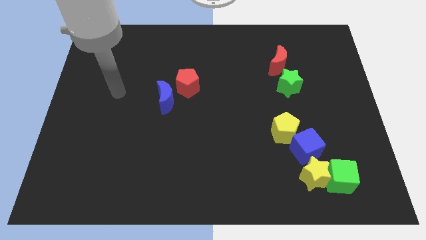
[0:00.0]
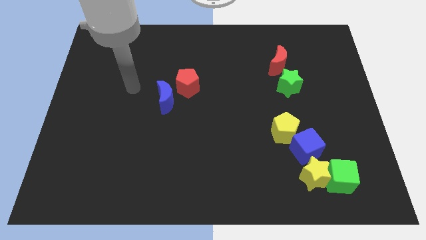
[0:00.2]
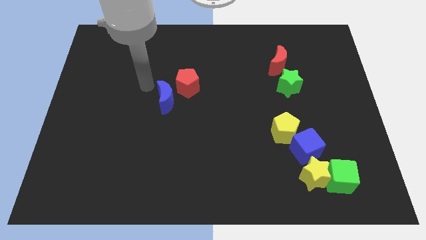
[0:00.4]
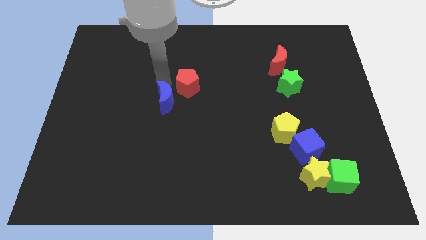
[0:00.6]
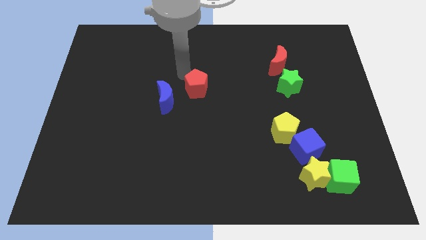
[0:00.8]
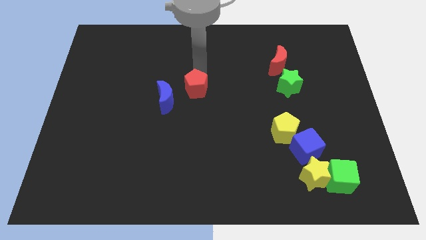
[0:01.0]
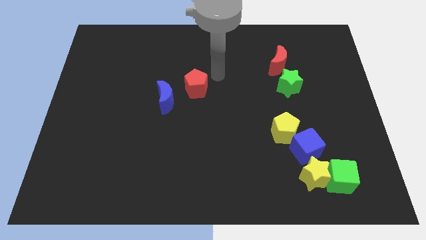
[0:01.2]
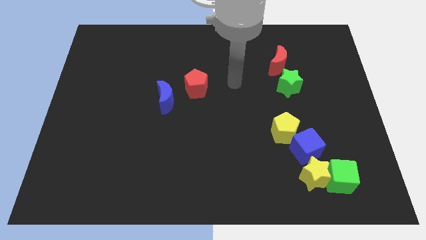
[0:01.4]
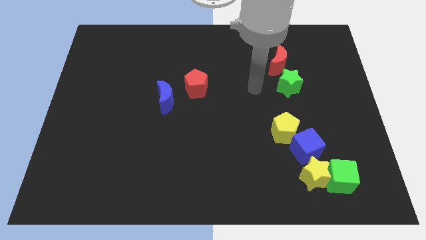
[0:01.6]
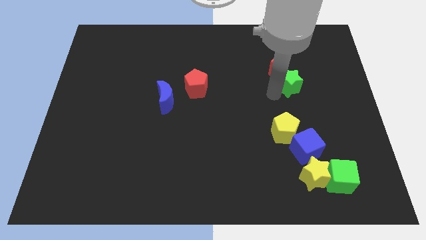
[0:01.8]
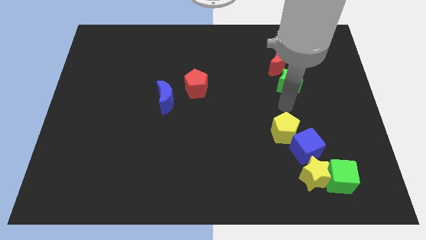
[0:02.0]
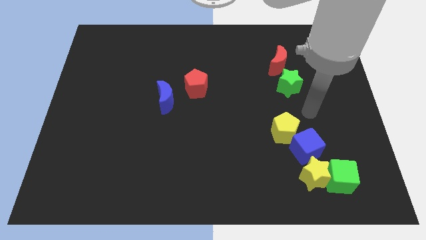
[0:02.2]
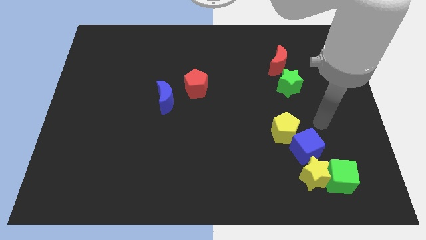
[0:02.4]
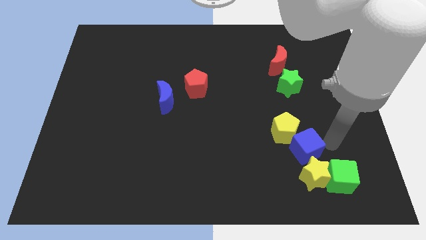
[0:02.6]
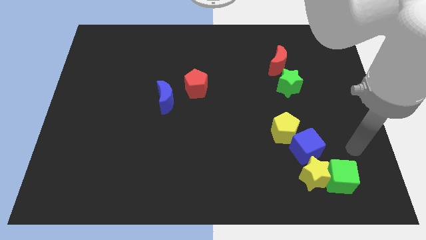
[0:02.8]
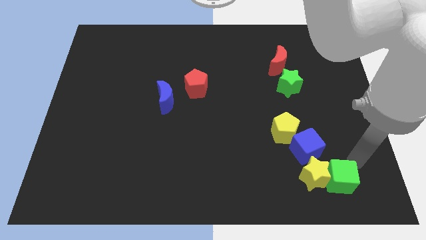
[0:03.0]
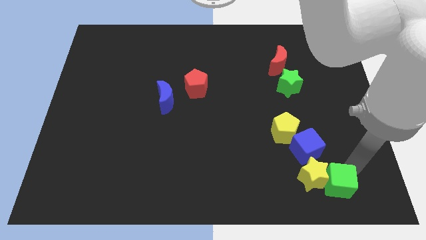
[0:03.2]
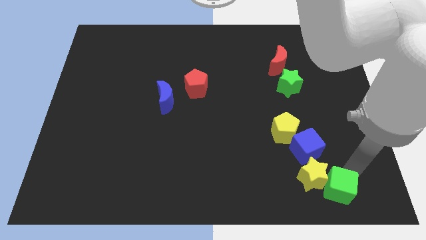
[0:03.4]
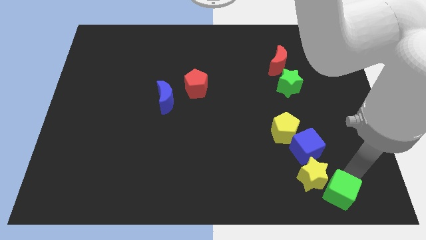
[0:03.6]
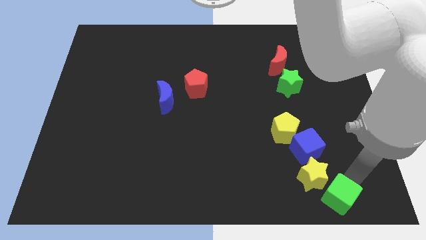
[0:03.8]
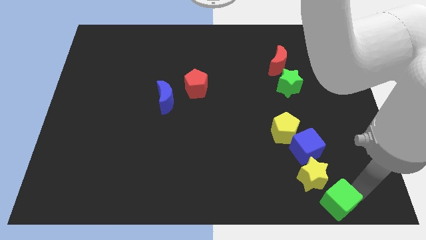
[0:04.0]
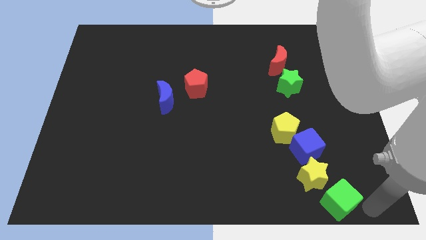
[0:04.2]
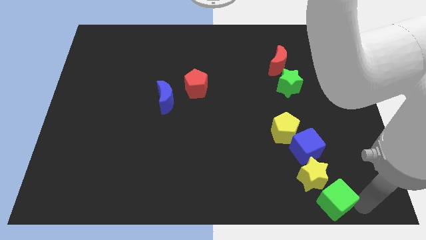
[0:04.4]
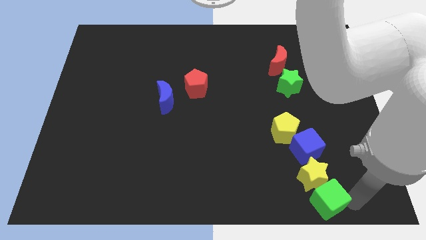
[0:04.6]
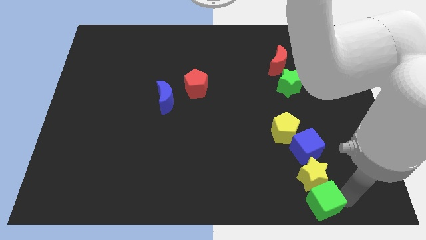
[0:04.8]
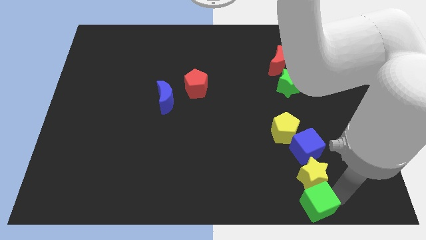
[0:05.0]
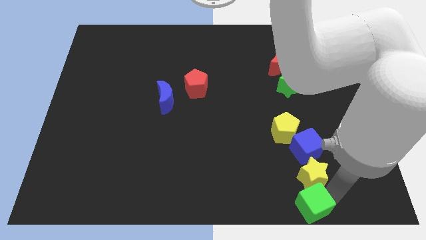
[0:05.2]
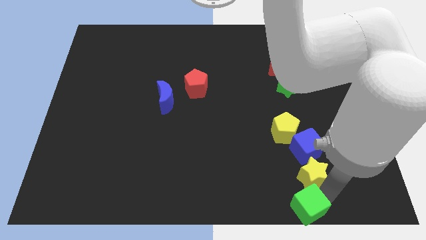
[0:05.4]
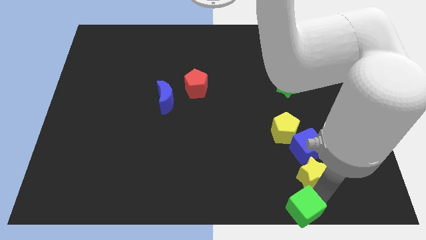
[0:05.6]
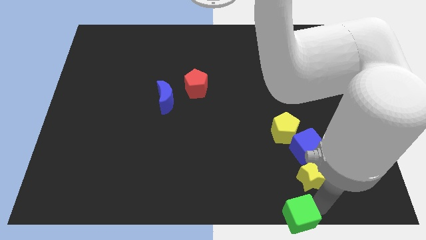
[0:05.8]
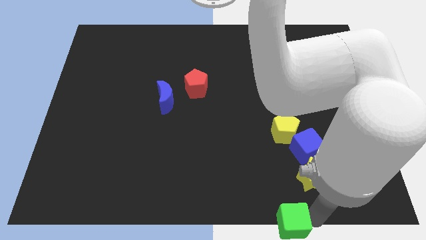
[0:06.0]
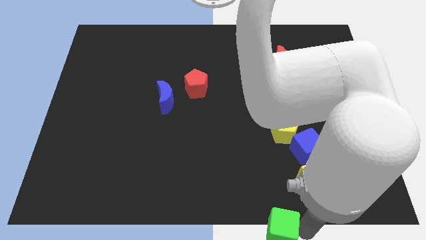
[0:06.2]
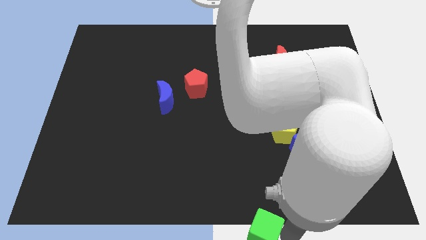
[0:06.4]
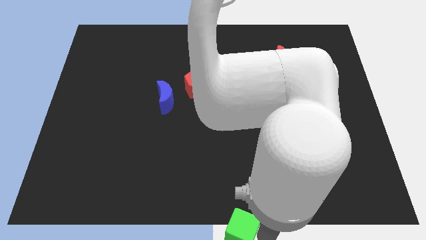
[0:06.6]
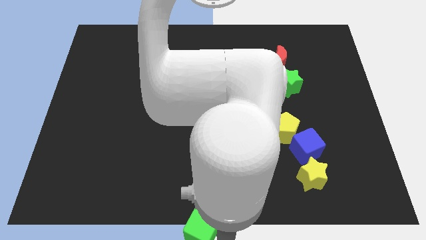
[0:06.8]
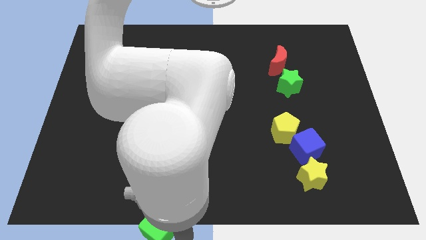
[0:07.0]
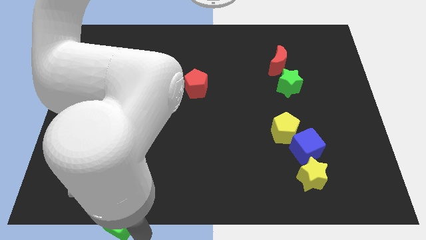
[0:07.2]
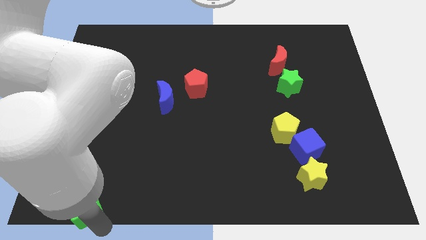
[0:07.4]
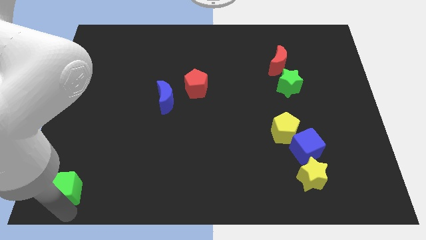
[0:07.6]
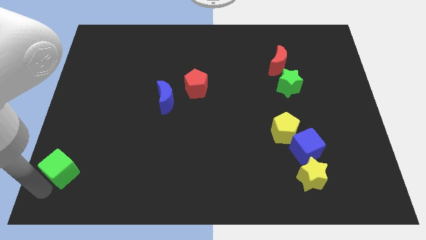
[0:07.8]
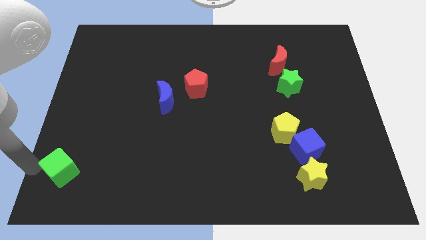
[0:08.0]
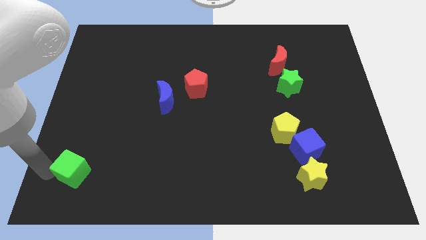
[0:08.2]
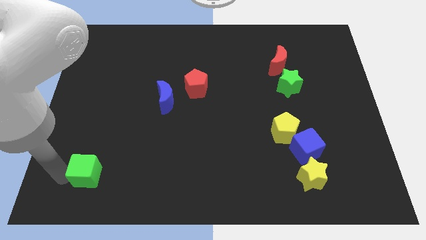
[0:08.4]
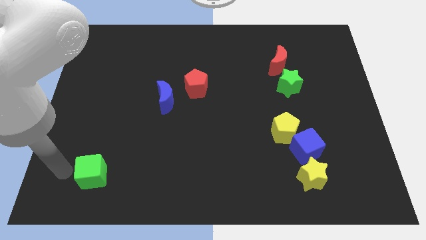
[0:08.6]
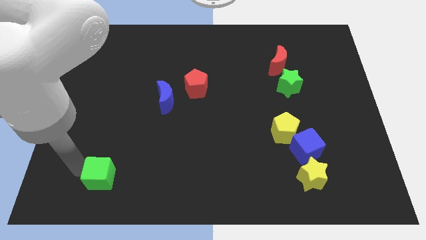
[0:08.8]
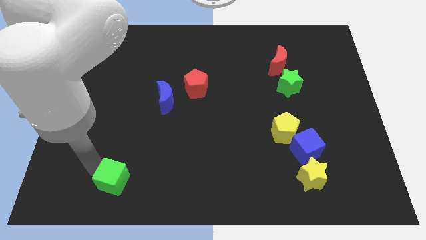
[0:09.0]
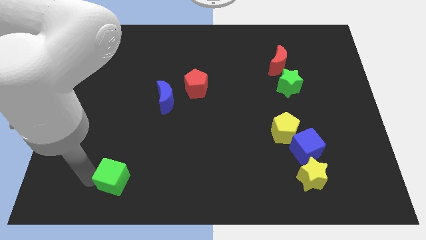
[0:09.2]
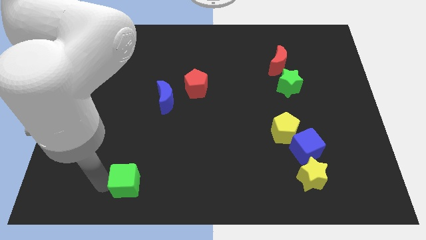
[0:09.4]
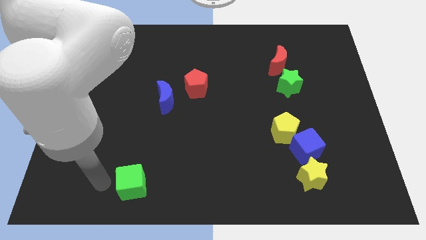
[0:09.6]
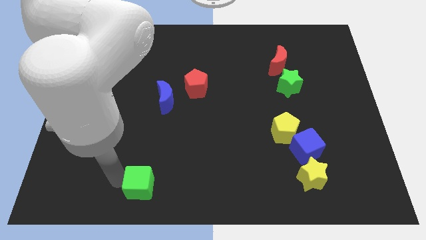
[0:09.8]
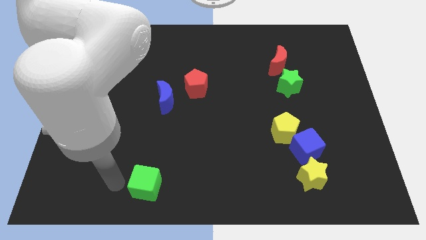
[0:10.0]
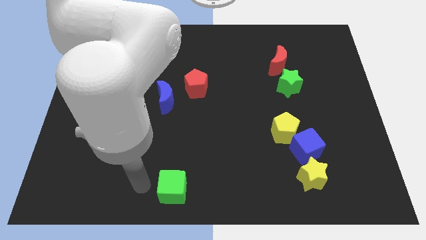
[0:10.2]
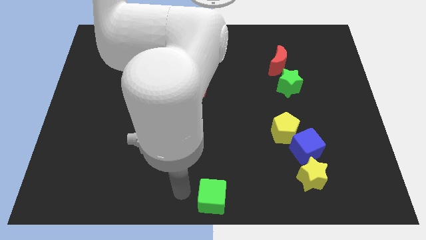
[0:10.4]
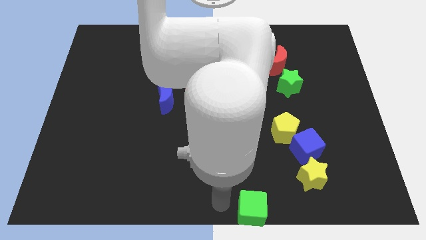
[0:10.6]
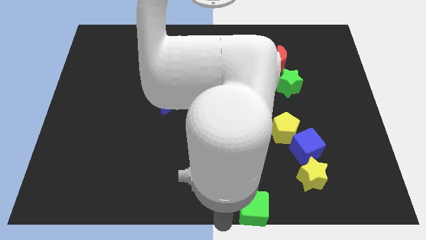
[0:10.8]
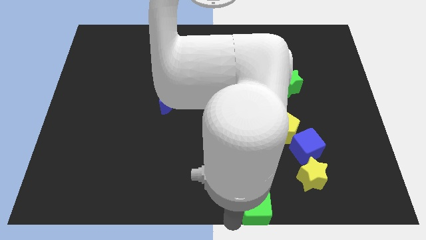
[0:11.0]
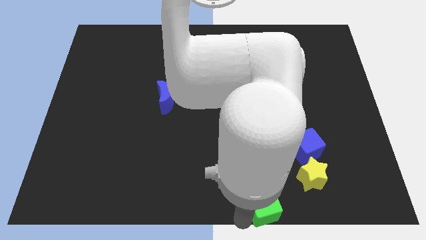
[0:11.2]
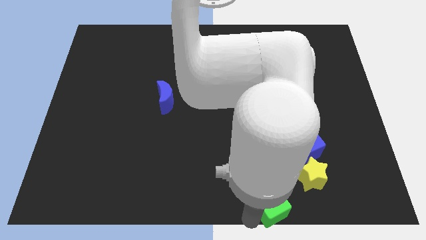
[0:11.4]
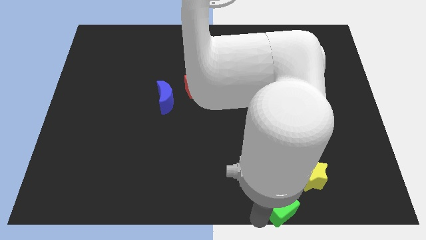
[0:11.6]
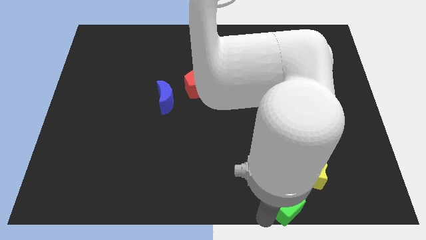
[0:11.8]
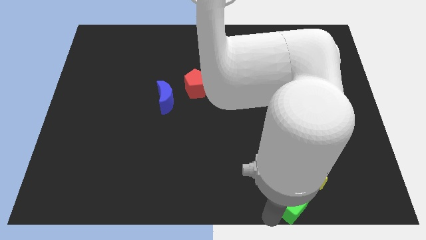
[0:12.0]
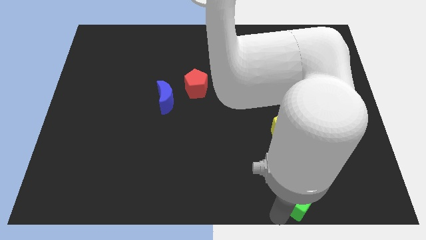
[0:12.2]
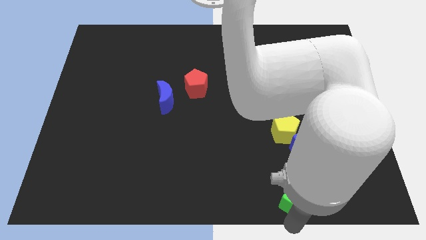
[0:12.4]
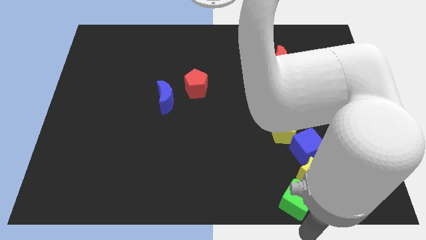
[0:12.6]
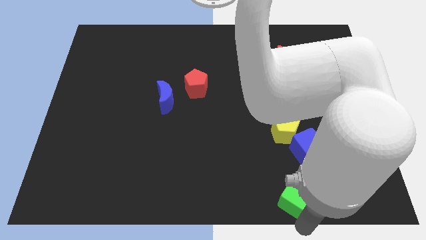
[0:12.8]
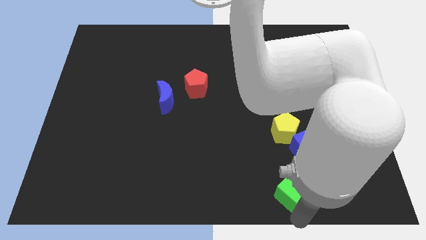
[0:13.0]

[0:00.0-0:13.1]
push the green cube diagonally down and to the left of the blue cube

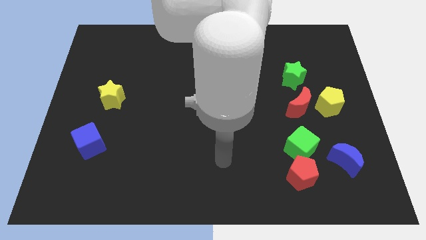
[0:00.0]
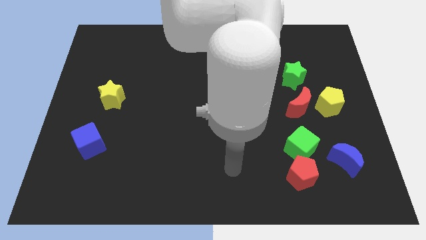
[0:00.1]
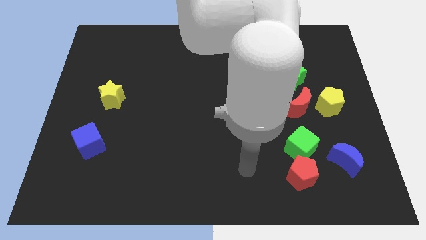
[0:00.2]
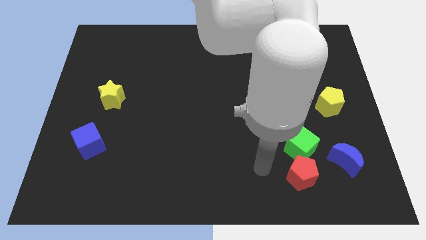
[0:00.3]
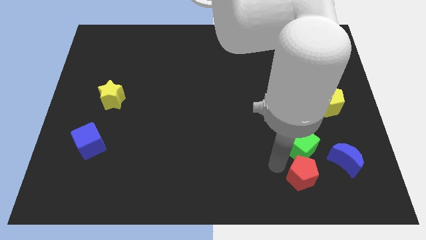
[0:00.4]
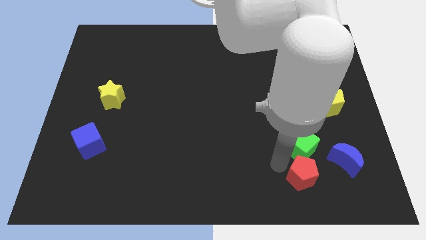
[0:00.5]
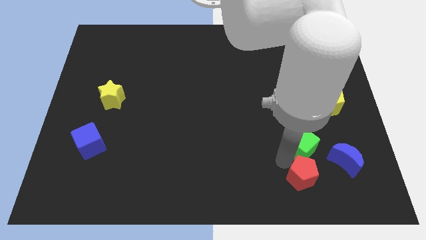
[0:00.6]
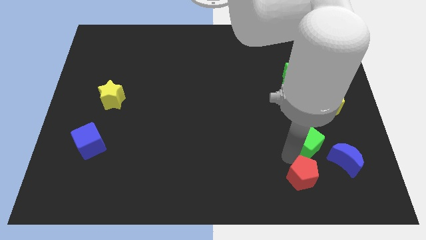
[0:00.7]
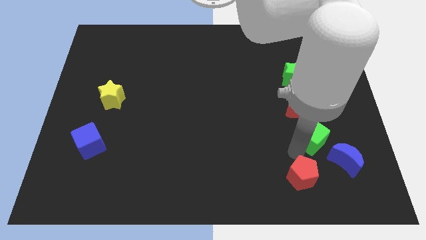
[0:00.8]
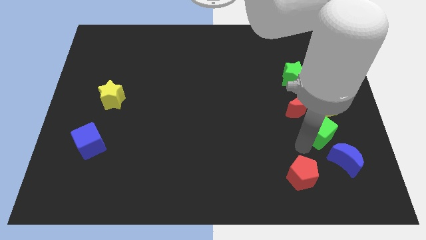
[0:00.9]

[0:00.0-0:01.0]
move the green cube to the top side of the blue moon
